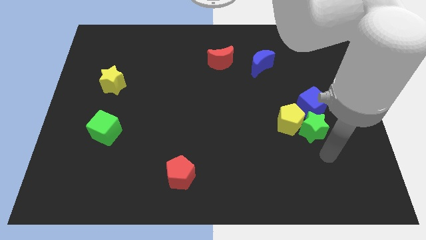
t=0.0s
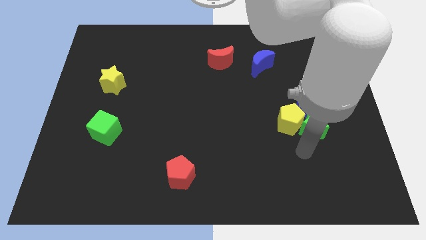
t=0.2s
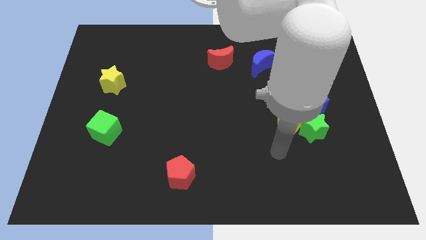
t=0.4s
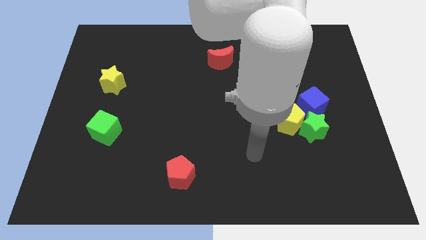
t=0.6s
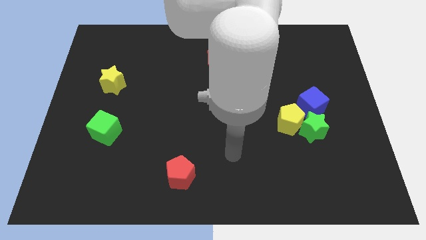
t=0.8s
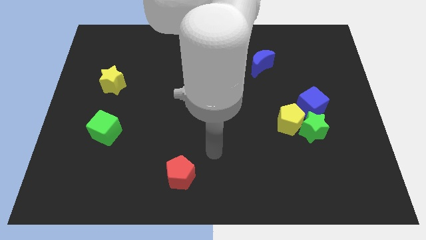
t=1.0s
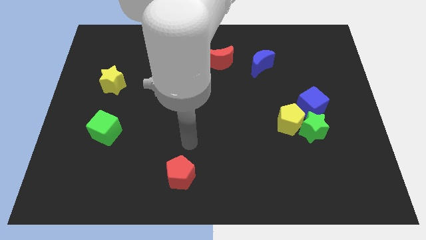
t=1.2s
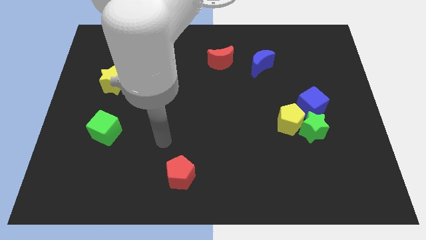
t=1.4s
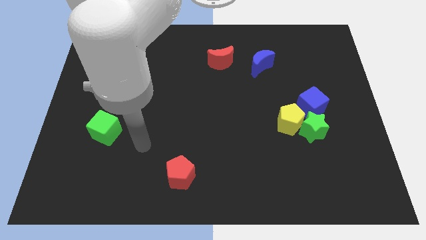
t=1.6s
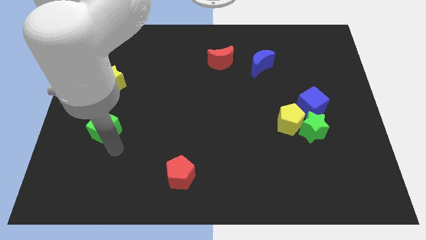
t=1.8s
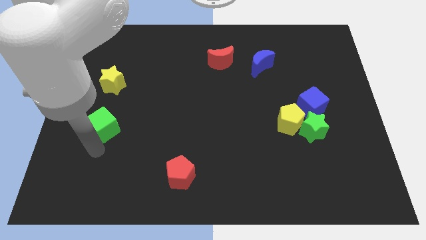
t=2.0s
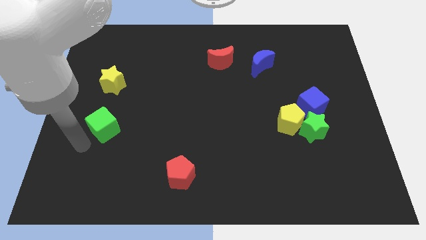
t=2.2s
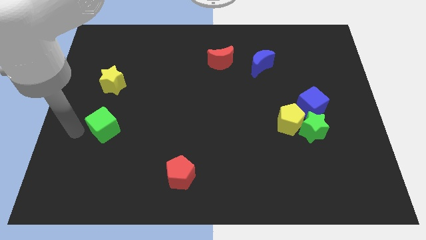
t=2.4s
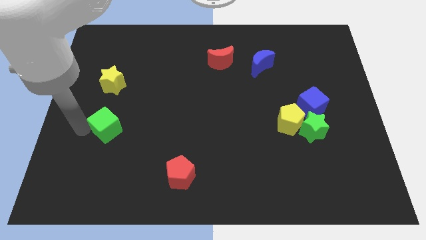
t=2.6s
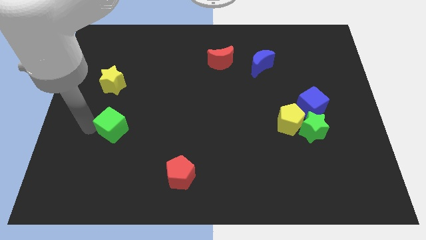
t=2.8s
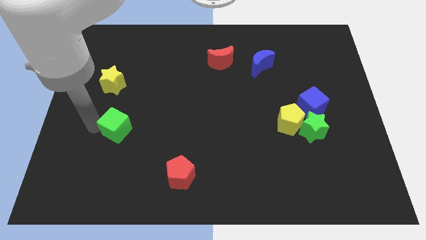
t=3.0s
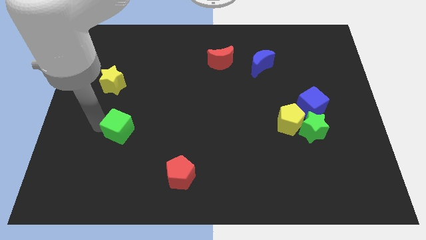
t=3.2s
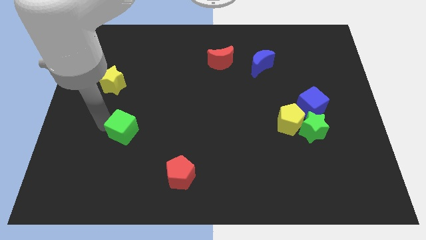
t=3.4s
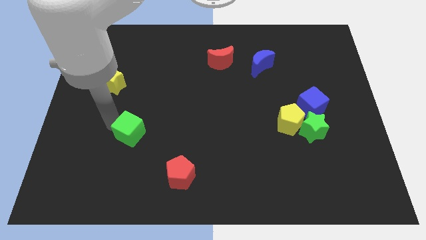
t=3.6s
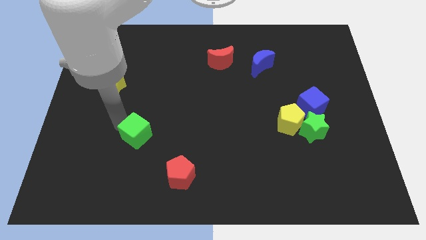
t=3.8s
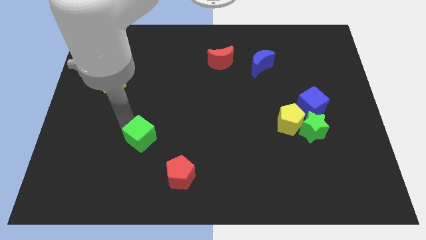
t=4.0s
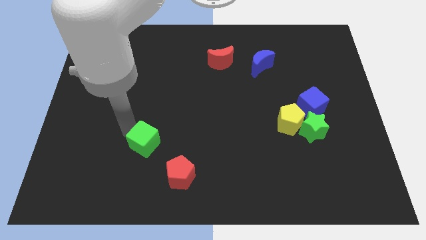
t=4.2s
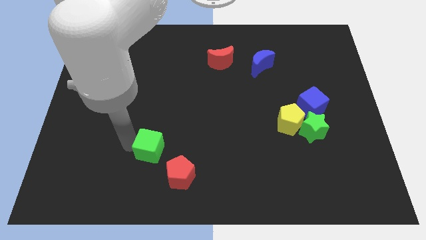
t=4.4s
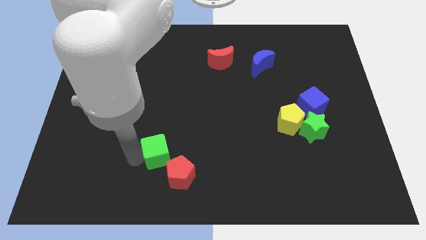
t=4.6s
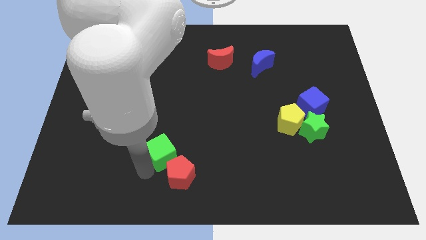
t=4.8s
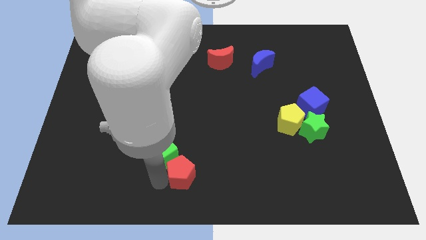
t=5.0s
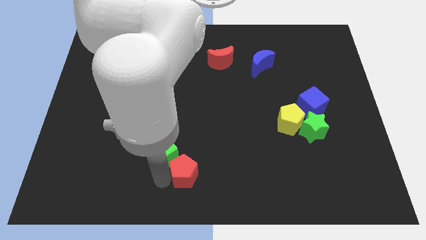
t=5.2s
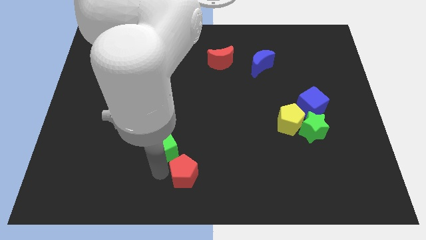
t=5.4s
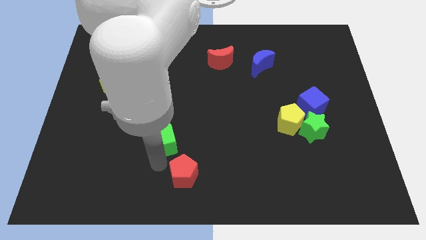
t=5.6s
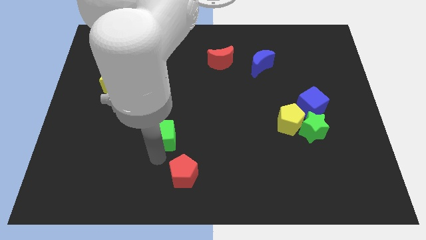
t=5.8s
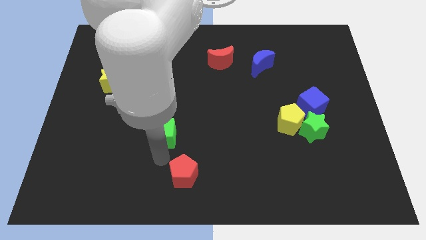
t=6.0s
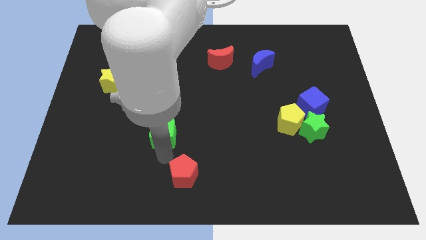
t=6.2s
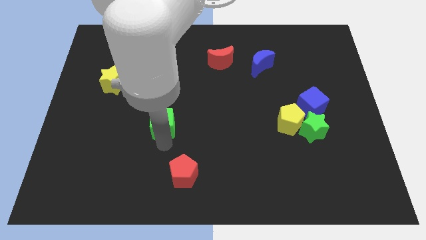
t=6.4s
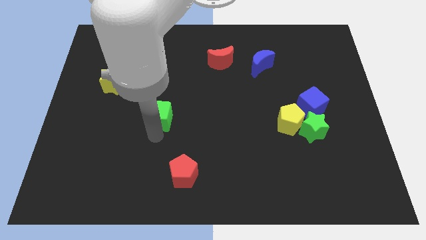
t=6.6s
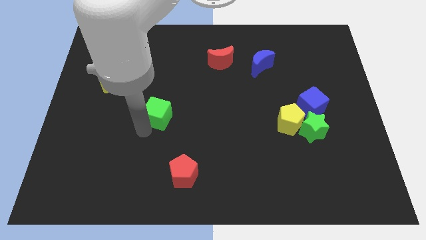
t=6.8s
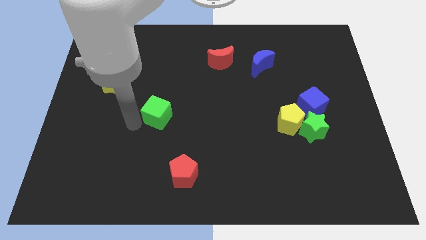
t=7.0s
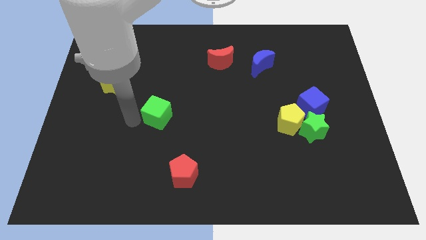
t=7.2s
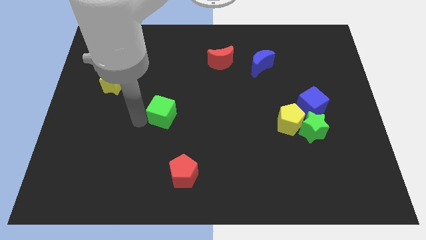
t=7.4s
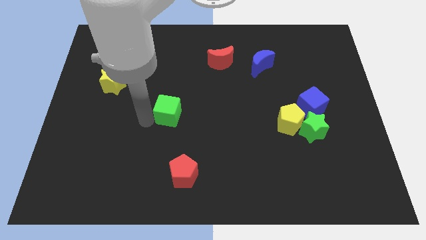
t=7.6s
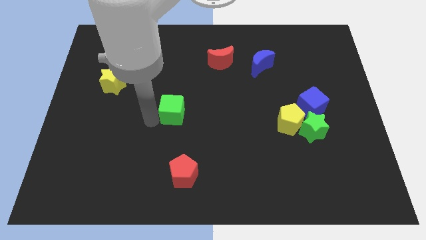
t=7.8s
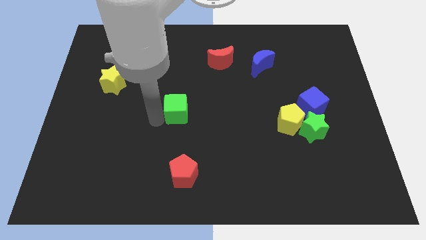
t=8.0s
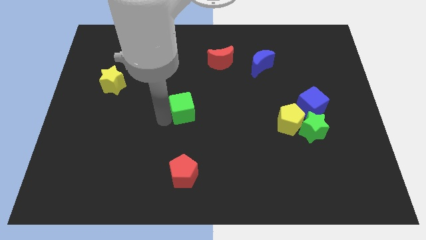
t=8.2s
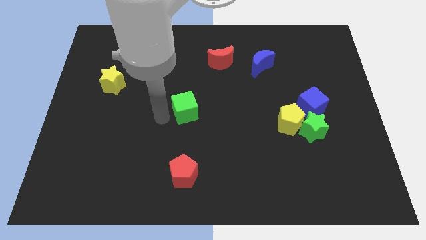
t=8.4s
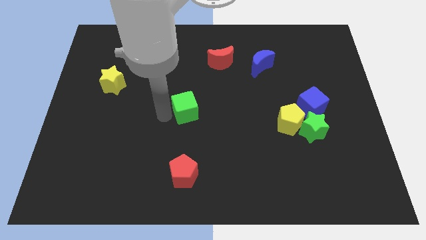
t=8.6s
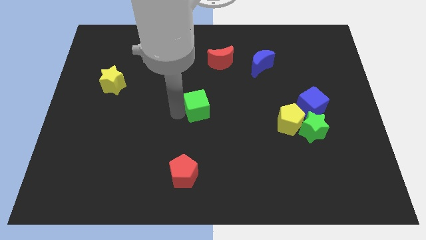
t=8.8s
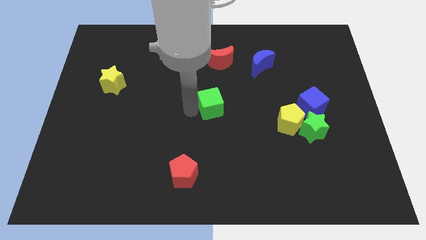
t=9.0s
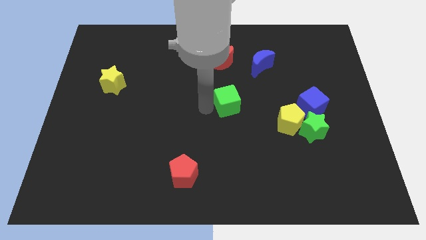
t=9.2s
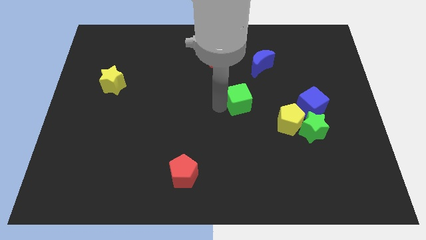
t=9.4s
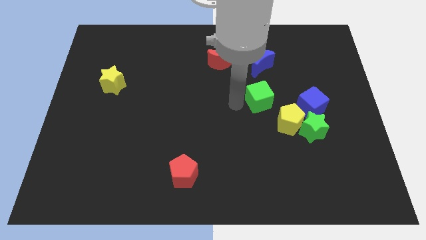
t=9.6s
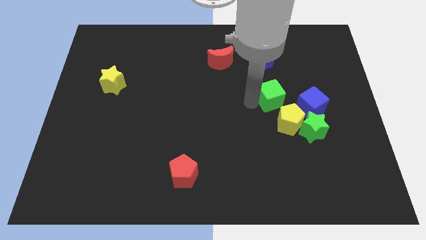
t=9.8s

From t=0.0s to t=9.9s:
push the green cube above the yellow pentagon

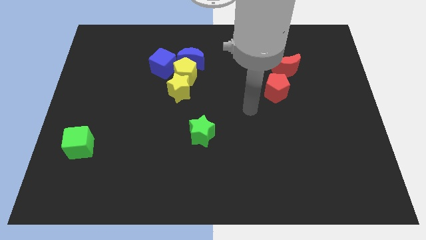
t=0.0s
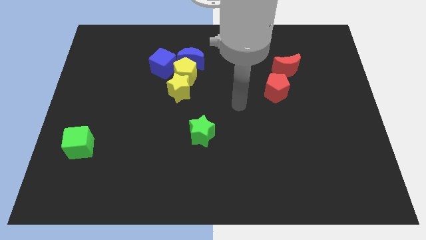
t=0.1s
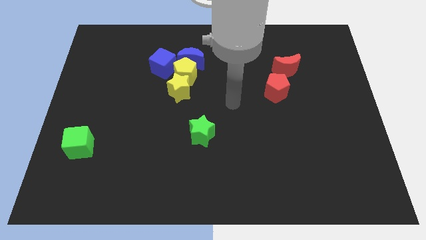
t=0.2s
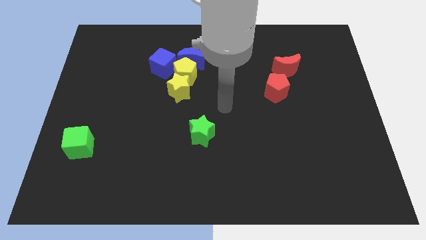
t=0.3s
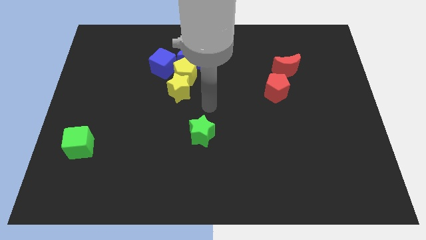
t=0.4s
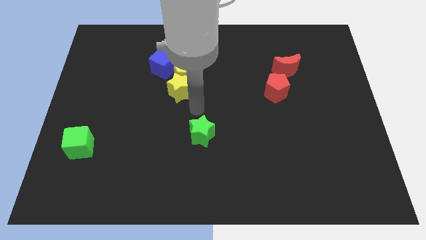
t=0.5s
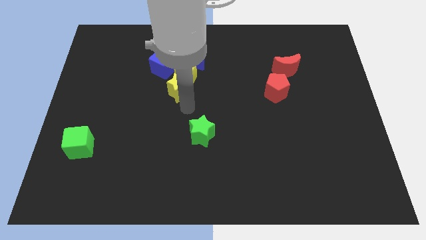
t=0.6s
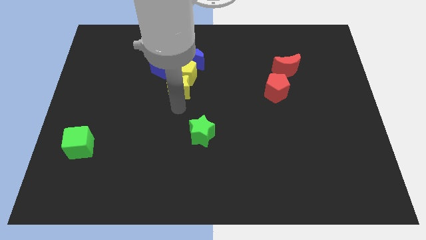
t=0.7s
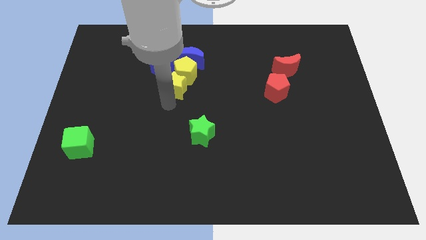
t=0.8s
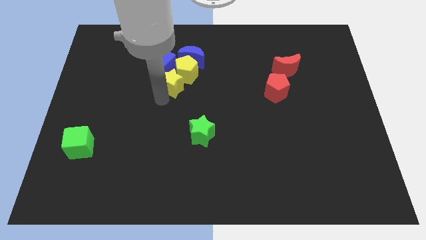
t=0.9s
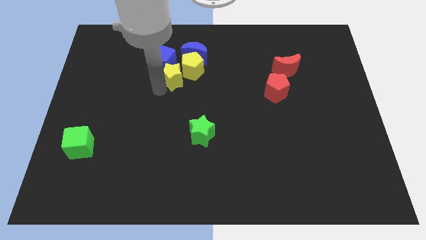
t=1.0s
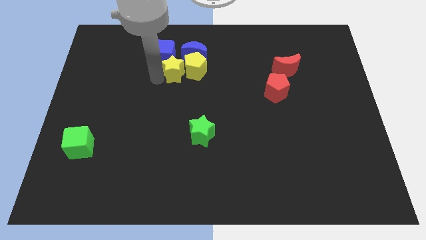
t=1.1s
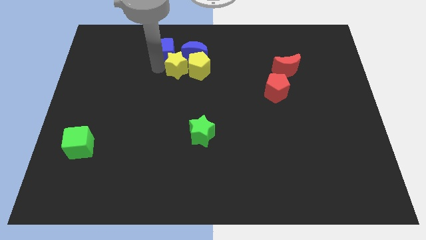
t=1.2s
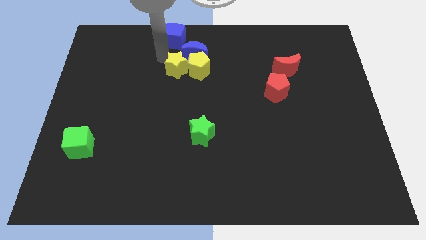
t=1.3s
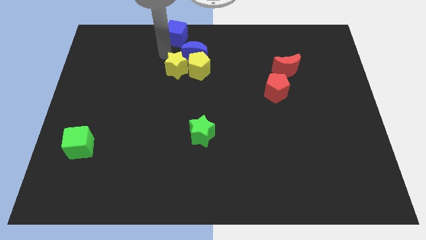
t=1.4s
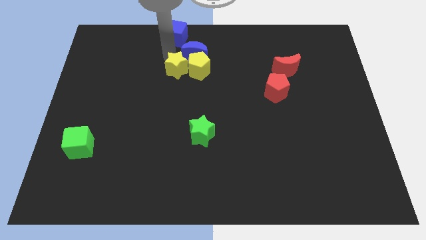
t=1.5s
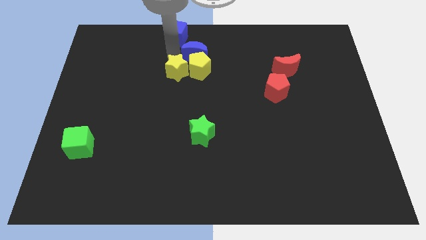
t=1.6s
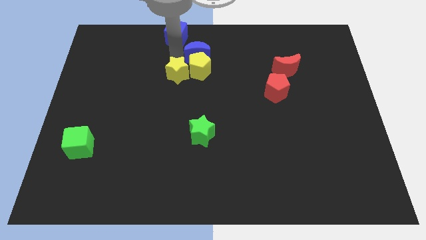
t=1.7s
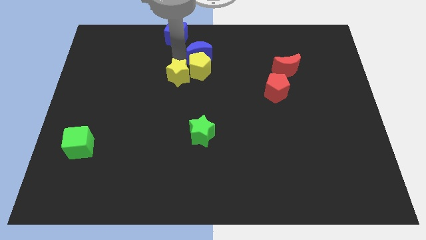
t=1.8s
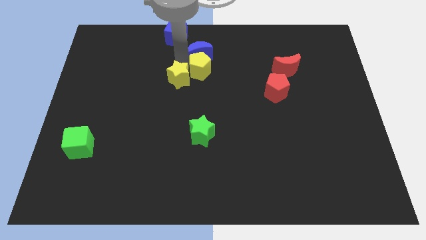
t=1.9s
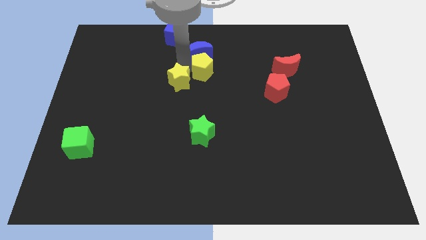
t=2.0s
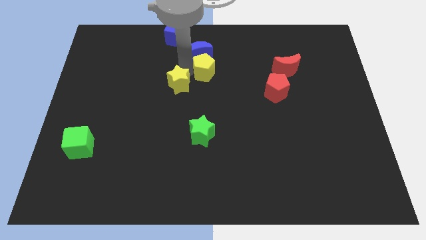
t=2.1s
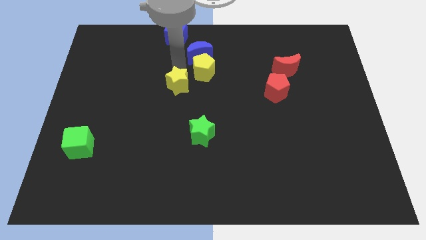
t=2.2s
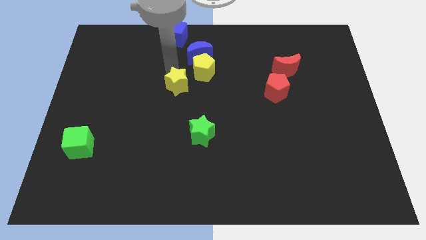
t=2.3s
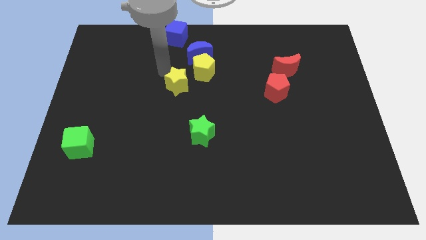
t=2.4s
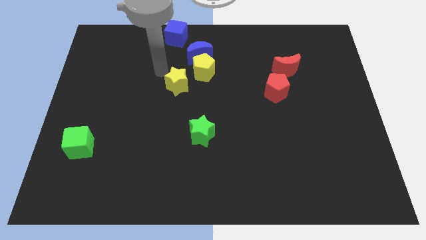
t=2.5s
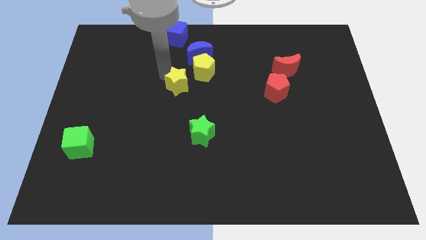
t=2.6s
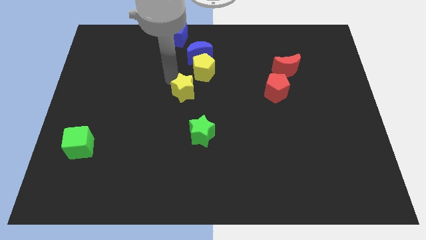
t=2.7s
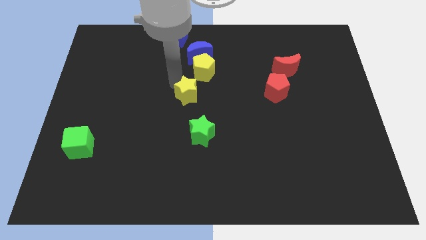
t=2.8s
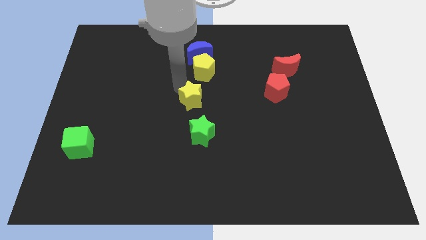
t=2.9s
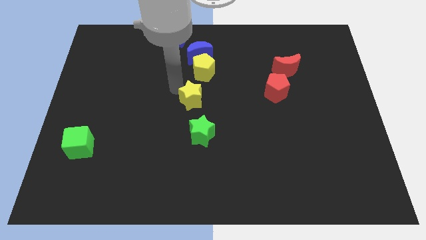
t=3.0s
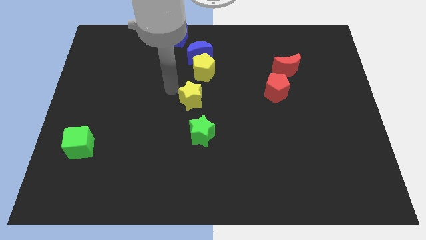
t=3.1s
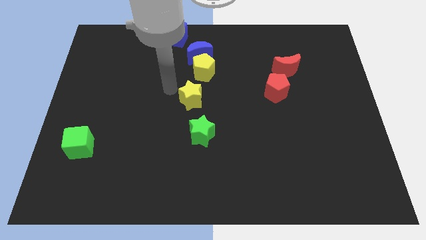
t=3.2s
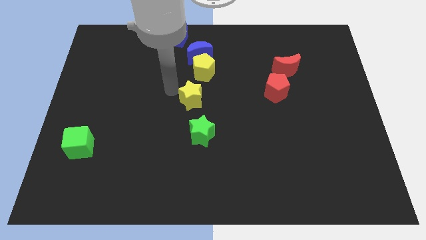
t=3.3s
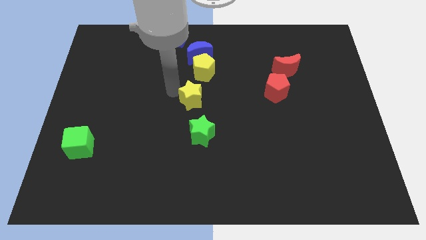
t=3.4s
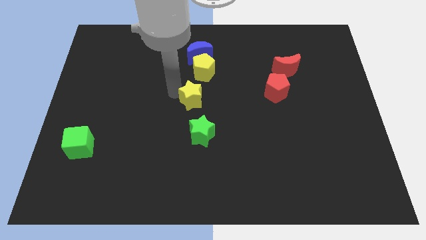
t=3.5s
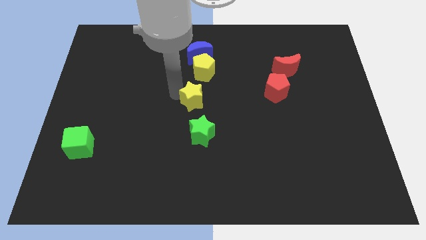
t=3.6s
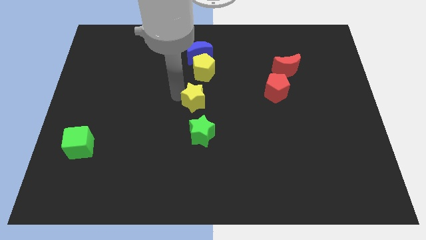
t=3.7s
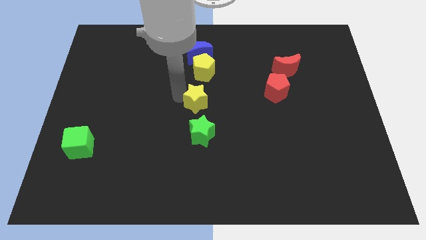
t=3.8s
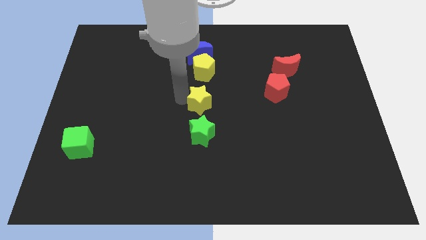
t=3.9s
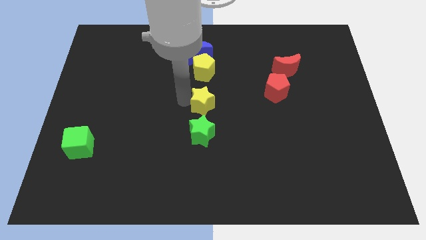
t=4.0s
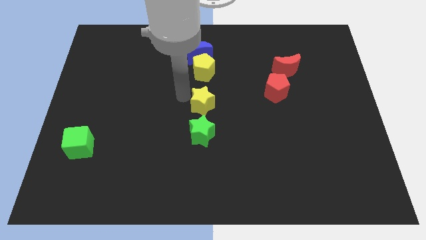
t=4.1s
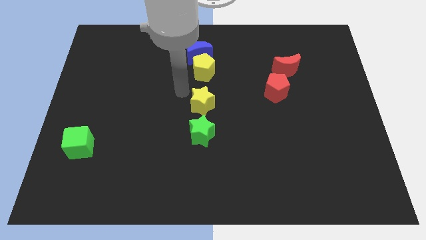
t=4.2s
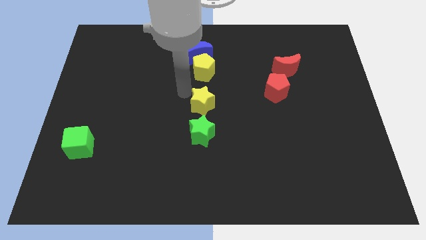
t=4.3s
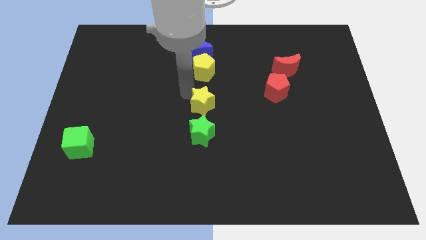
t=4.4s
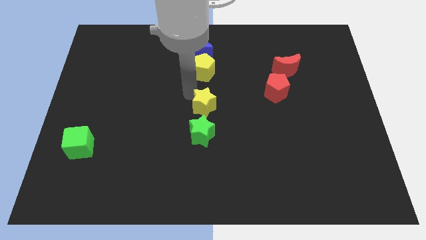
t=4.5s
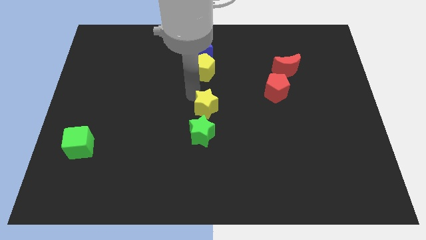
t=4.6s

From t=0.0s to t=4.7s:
put the yellow star to the top right side of the green star
